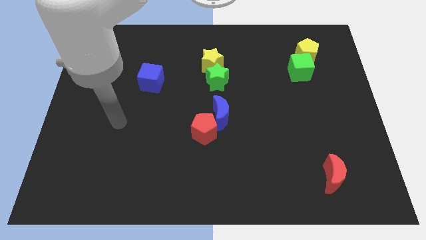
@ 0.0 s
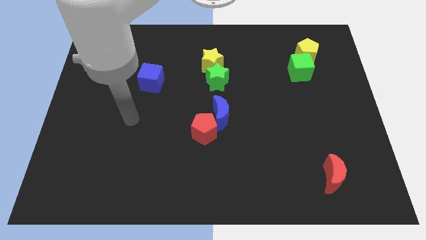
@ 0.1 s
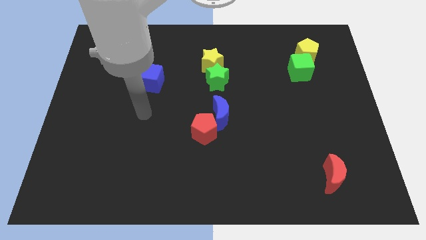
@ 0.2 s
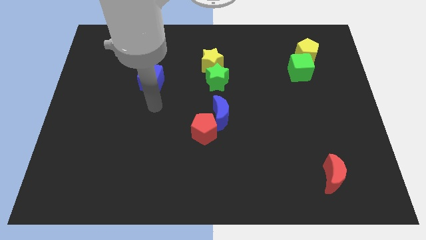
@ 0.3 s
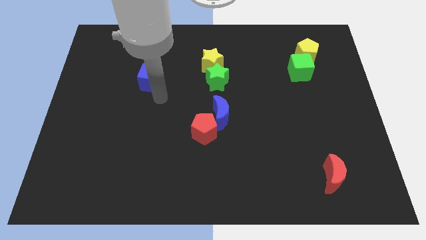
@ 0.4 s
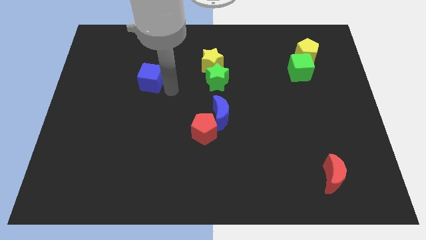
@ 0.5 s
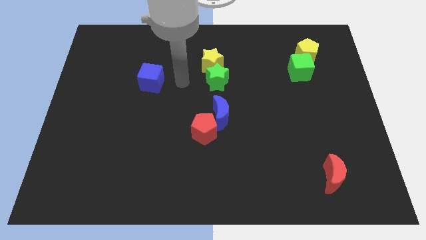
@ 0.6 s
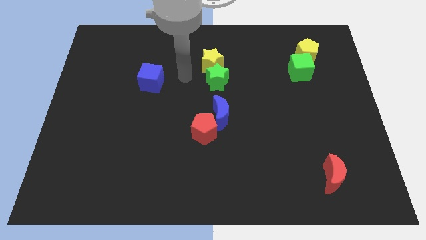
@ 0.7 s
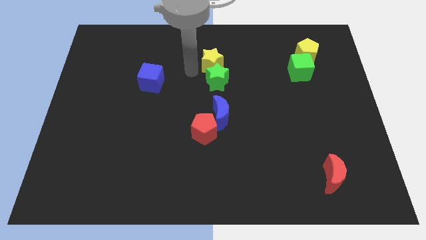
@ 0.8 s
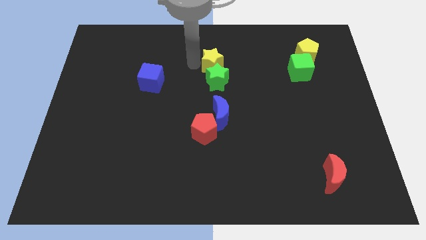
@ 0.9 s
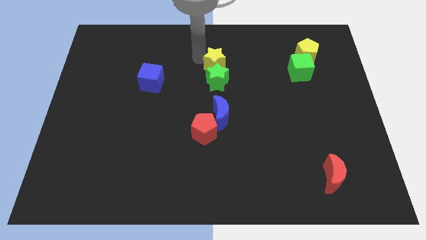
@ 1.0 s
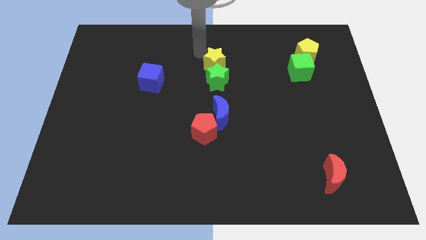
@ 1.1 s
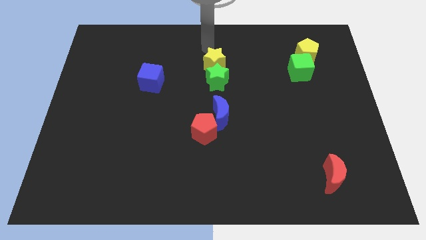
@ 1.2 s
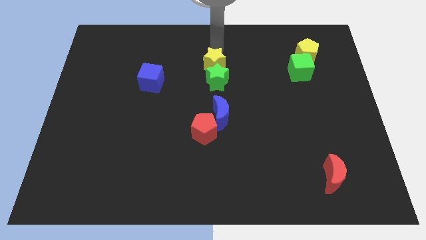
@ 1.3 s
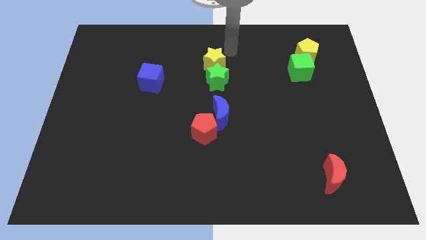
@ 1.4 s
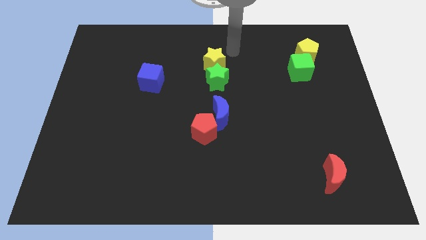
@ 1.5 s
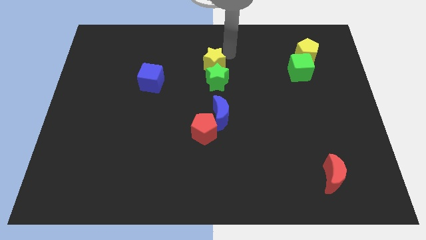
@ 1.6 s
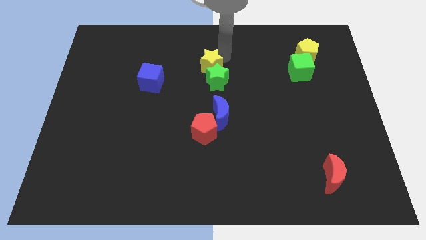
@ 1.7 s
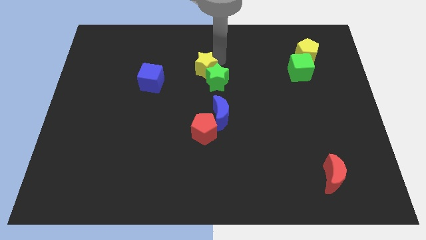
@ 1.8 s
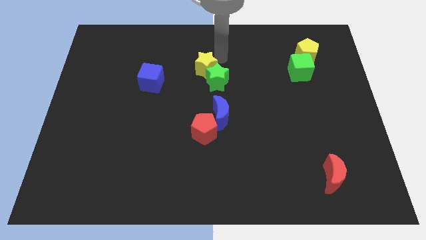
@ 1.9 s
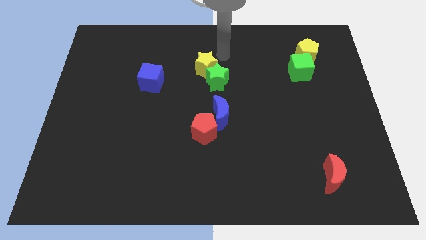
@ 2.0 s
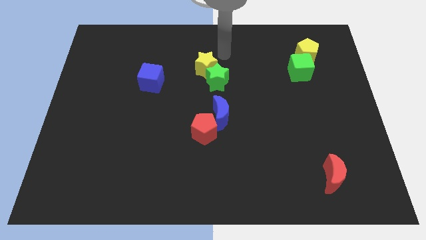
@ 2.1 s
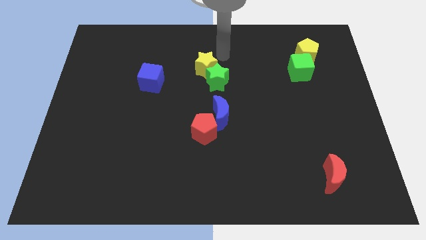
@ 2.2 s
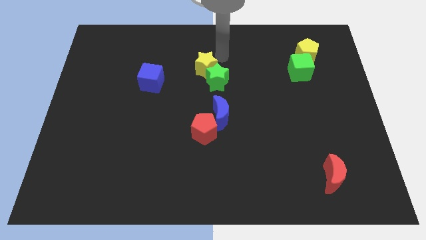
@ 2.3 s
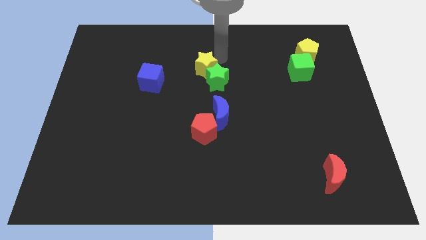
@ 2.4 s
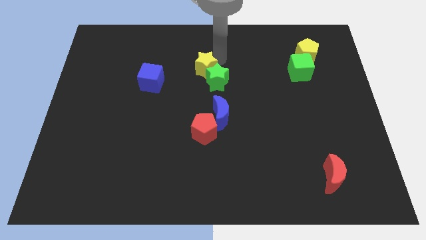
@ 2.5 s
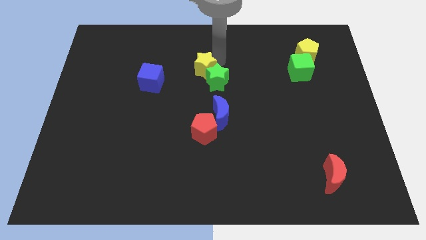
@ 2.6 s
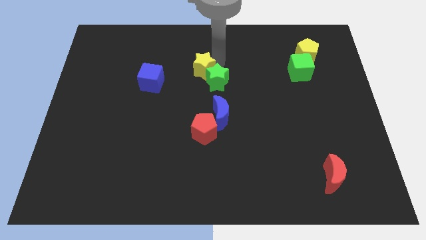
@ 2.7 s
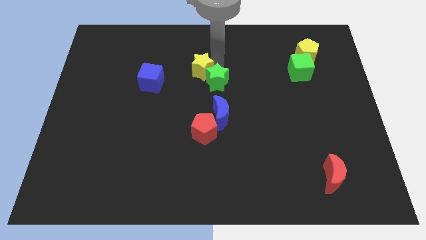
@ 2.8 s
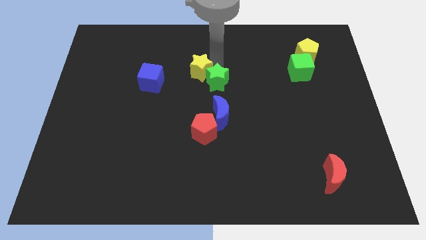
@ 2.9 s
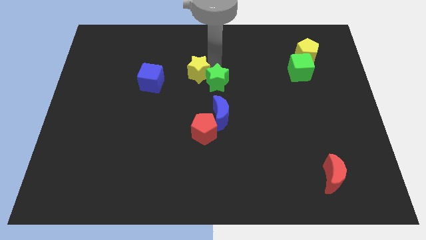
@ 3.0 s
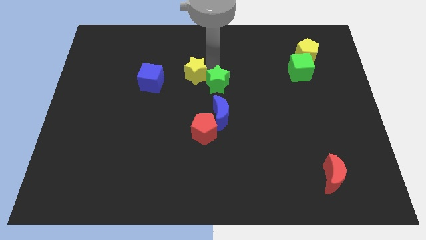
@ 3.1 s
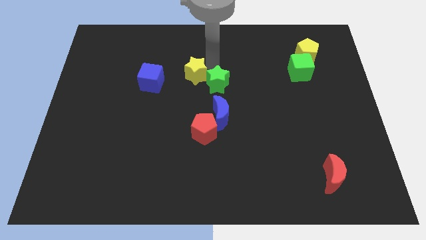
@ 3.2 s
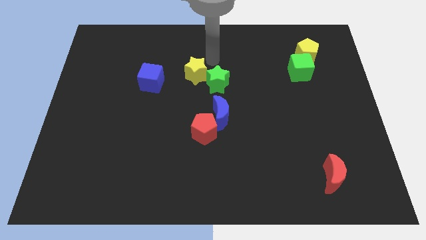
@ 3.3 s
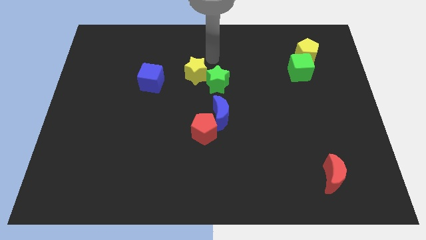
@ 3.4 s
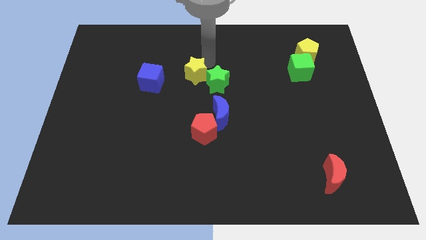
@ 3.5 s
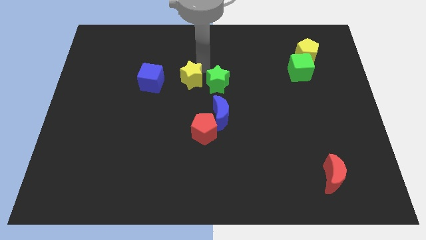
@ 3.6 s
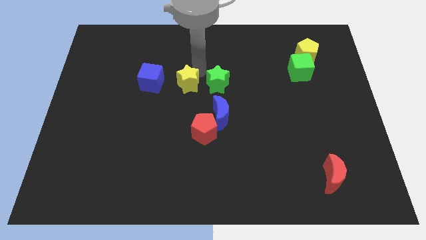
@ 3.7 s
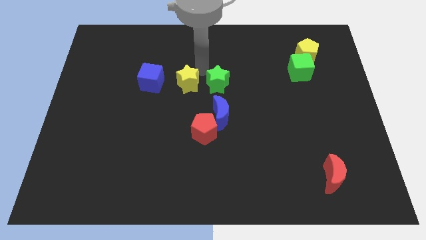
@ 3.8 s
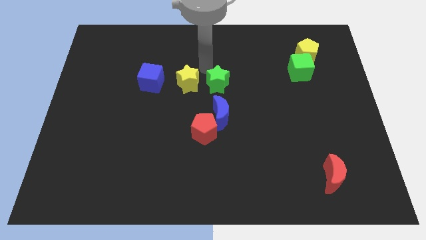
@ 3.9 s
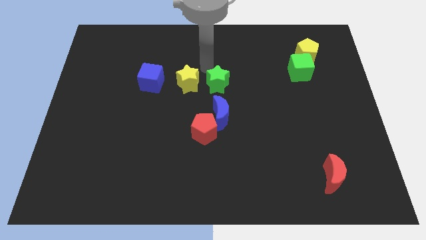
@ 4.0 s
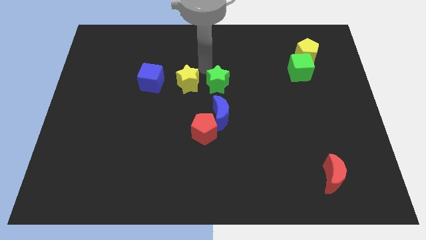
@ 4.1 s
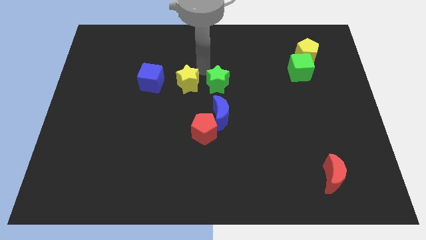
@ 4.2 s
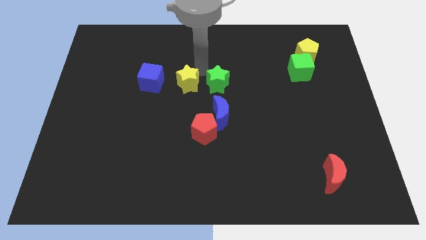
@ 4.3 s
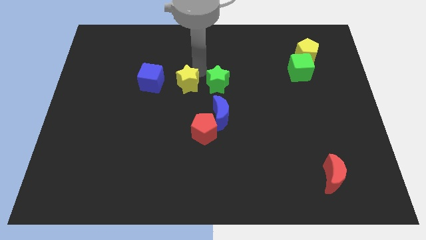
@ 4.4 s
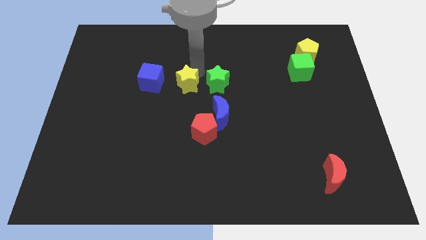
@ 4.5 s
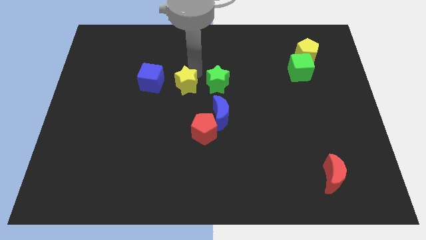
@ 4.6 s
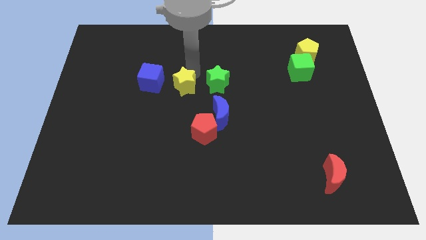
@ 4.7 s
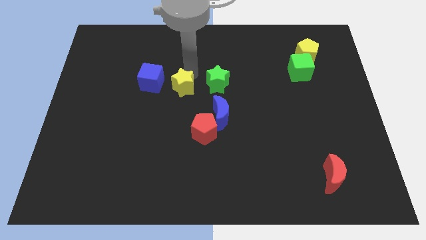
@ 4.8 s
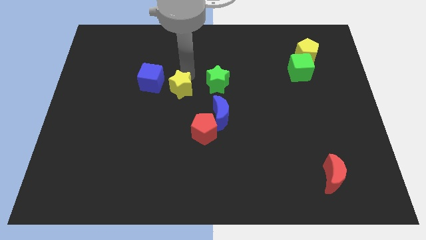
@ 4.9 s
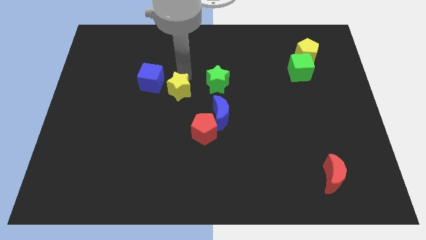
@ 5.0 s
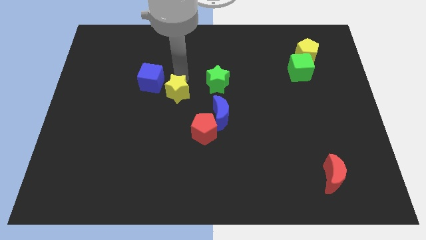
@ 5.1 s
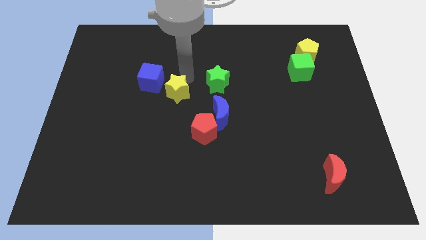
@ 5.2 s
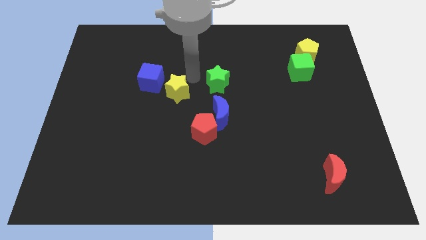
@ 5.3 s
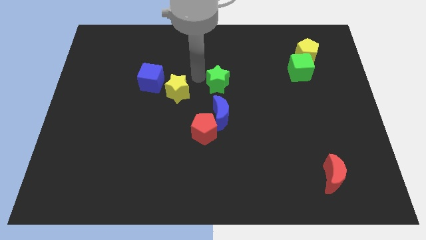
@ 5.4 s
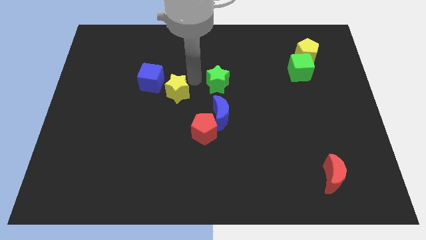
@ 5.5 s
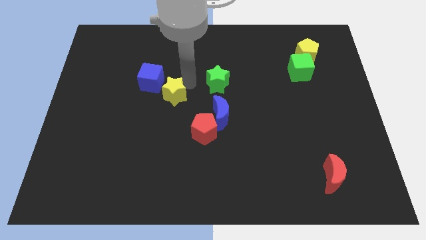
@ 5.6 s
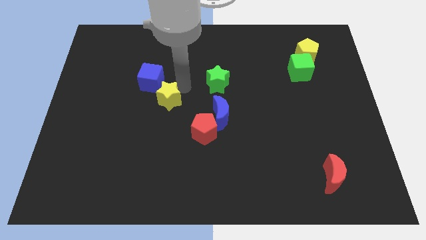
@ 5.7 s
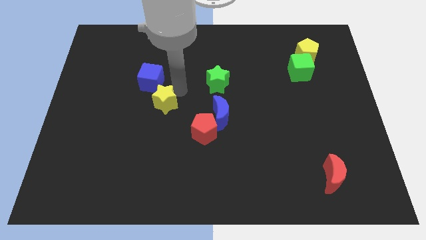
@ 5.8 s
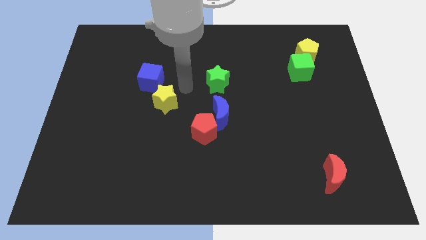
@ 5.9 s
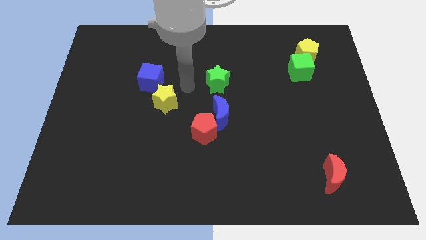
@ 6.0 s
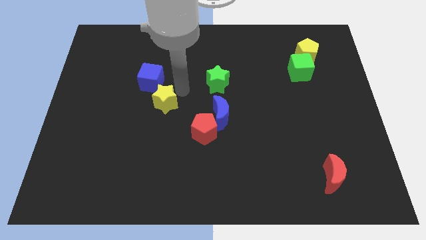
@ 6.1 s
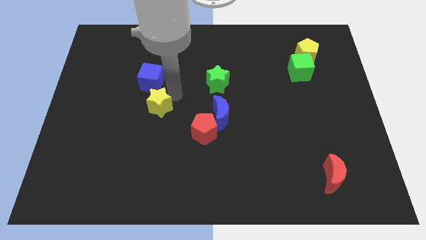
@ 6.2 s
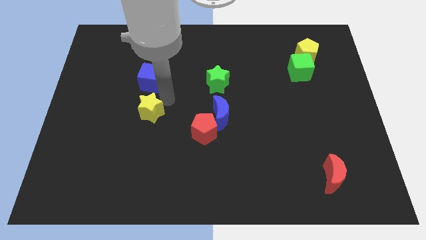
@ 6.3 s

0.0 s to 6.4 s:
slide the yellow star down and left

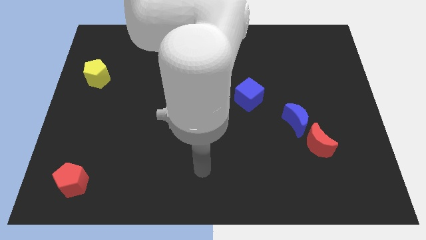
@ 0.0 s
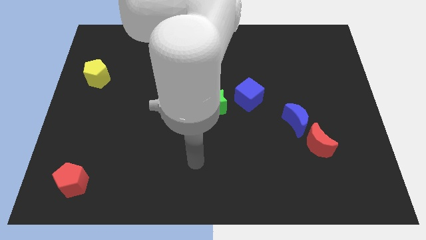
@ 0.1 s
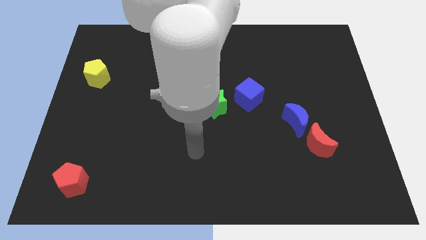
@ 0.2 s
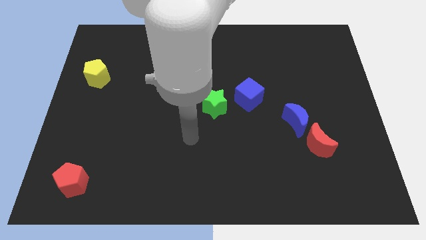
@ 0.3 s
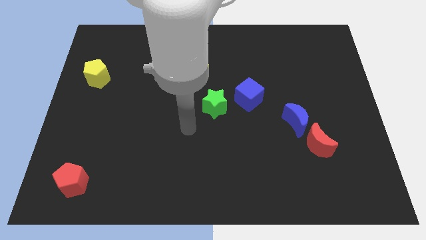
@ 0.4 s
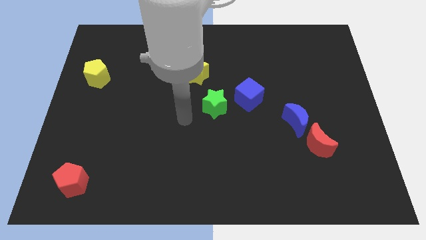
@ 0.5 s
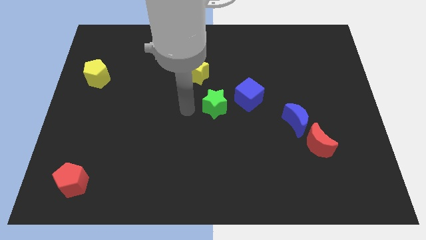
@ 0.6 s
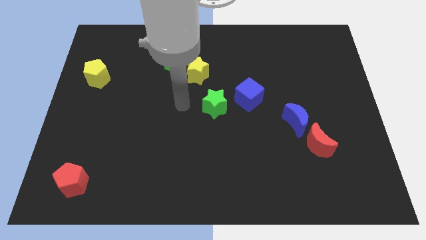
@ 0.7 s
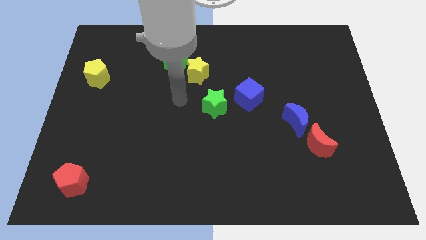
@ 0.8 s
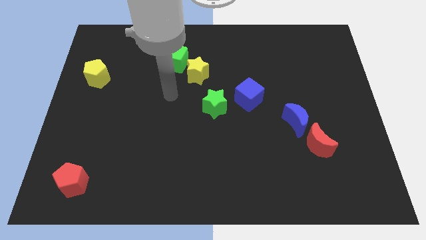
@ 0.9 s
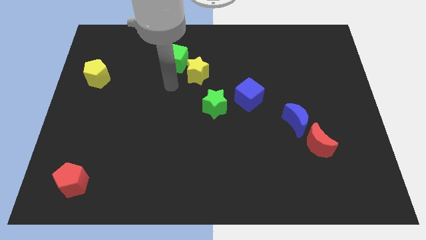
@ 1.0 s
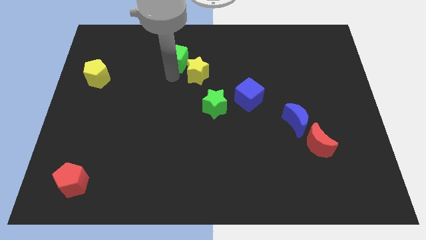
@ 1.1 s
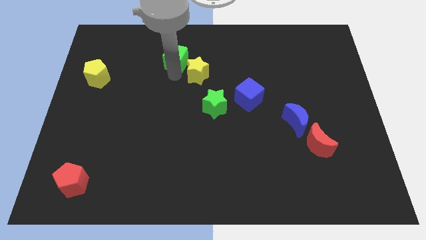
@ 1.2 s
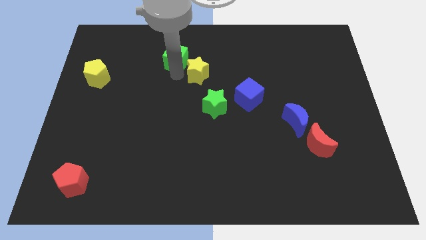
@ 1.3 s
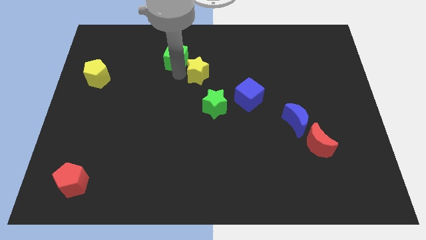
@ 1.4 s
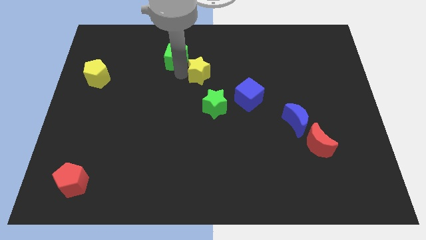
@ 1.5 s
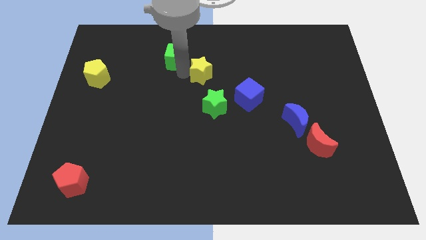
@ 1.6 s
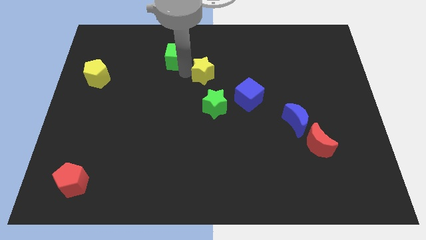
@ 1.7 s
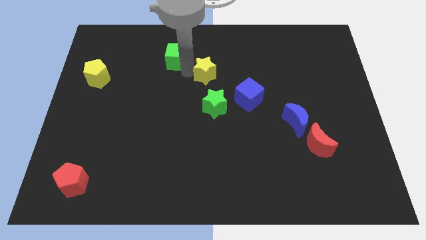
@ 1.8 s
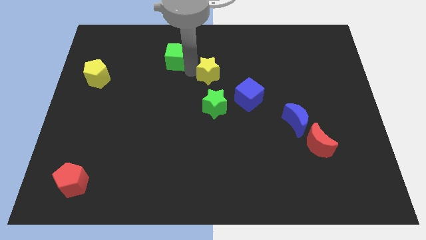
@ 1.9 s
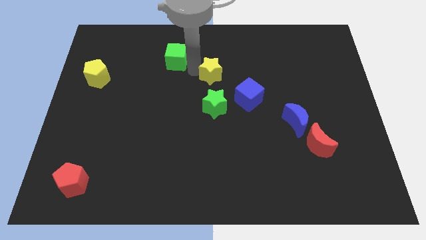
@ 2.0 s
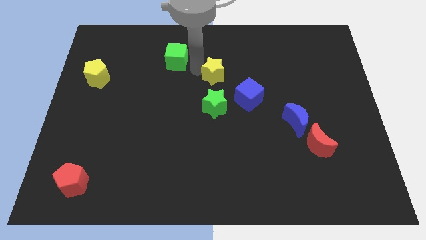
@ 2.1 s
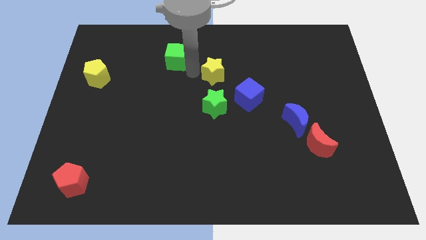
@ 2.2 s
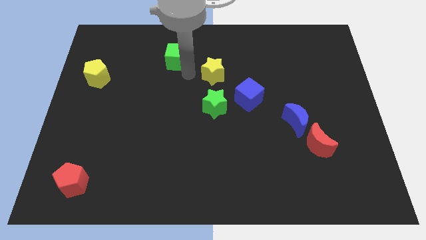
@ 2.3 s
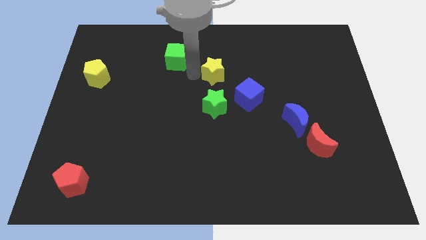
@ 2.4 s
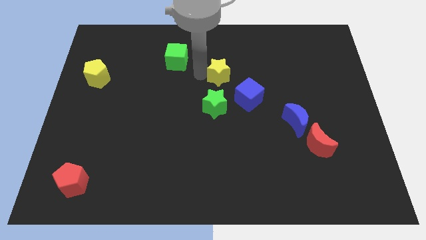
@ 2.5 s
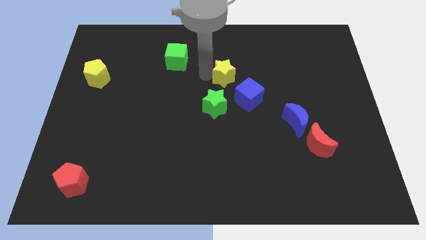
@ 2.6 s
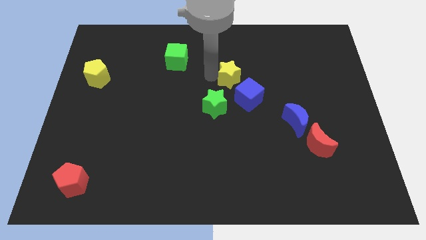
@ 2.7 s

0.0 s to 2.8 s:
move the yellow star somewhat right
